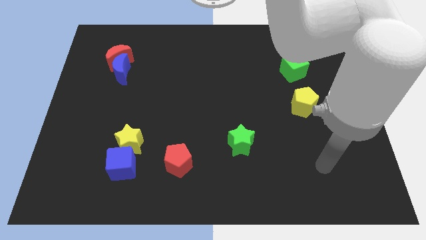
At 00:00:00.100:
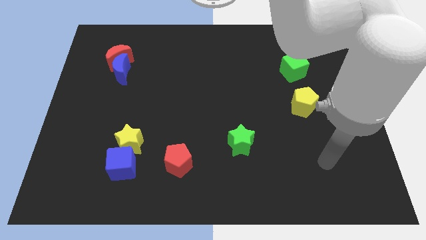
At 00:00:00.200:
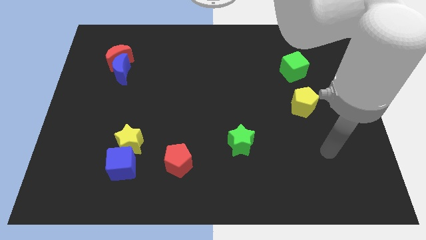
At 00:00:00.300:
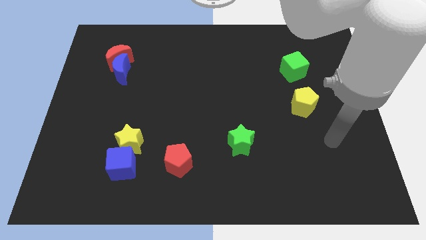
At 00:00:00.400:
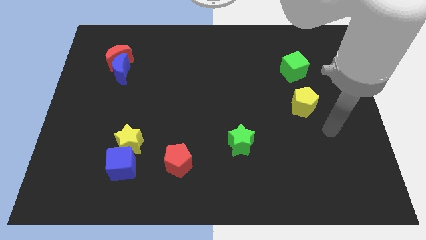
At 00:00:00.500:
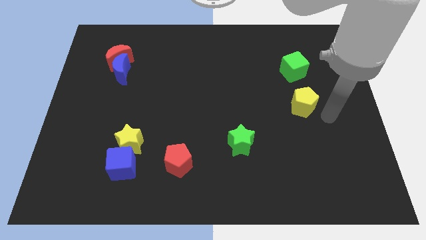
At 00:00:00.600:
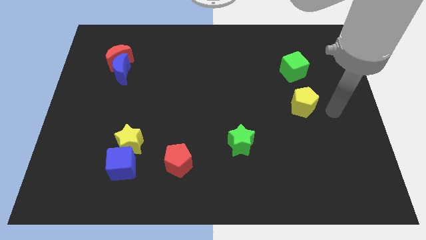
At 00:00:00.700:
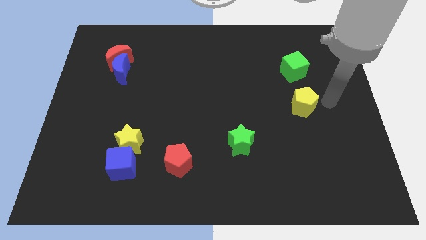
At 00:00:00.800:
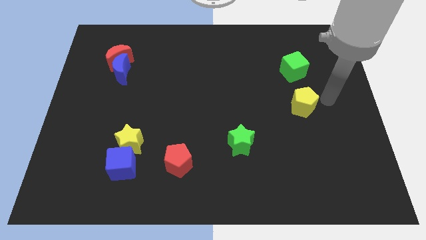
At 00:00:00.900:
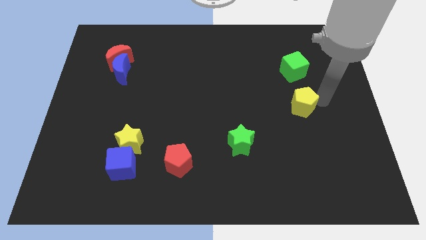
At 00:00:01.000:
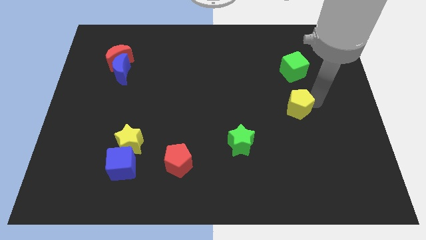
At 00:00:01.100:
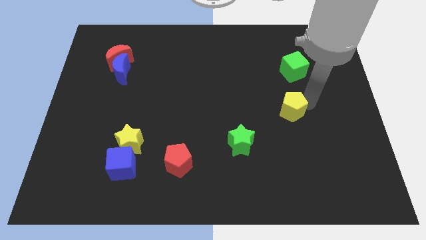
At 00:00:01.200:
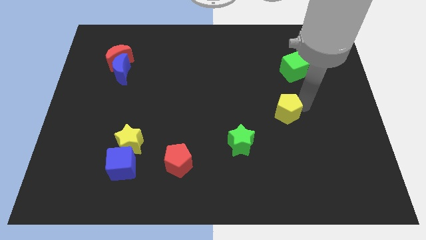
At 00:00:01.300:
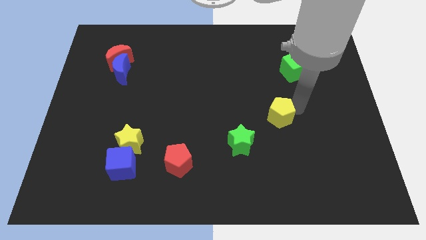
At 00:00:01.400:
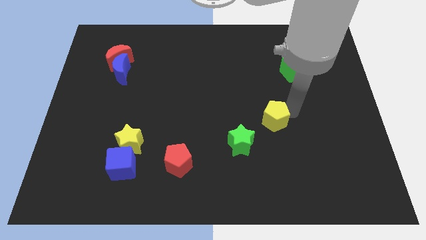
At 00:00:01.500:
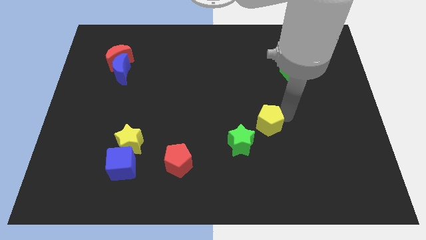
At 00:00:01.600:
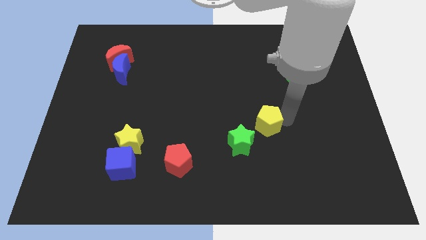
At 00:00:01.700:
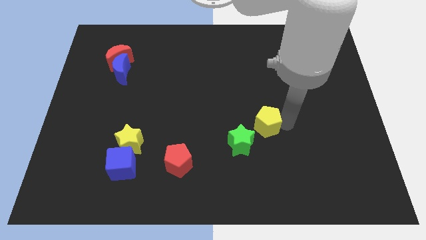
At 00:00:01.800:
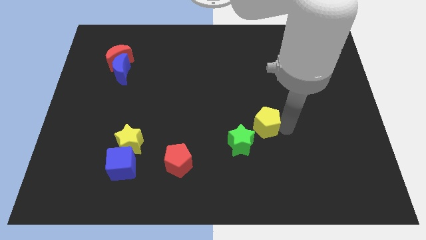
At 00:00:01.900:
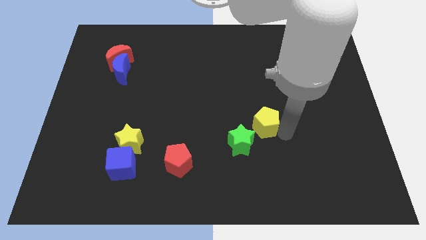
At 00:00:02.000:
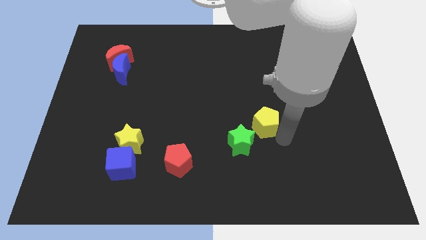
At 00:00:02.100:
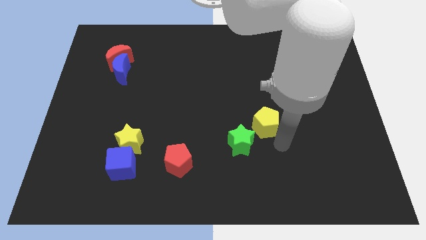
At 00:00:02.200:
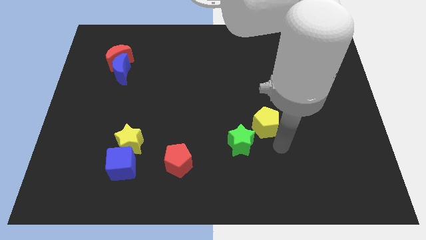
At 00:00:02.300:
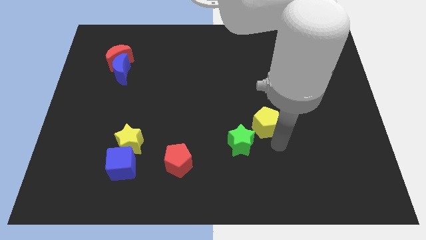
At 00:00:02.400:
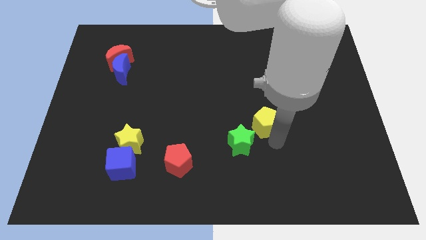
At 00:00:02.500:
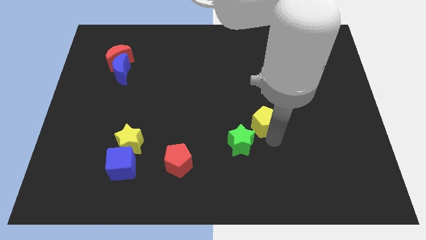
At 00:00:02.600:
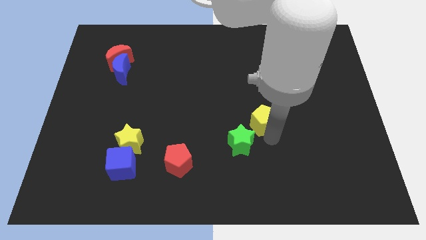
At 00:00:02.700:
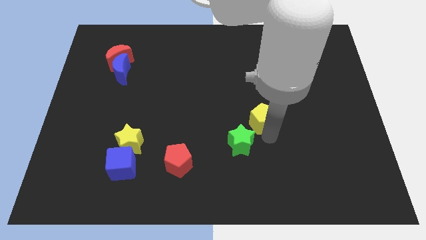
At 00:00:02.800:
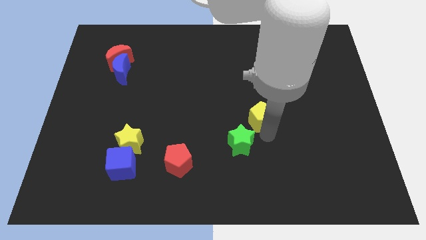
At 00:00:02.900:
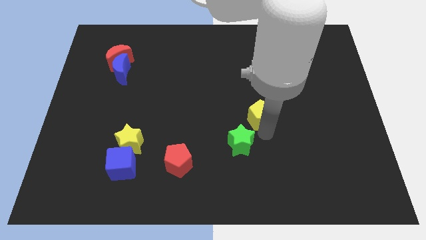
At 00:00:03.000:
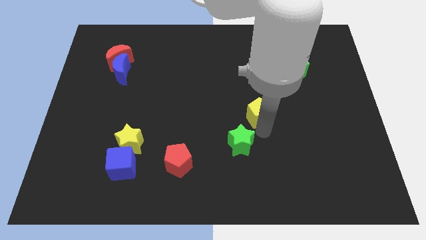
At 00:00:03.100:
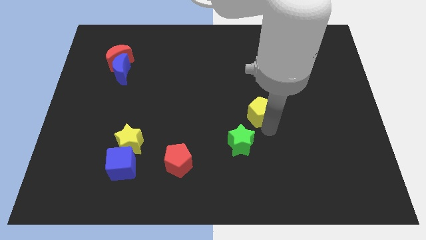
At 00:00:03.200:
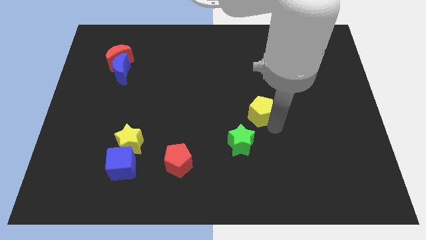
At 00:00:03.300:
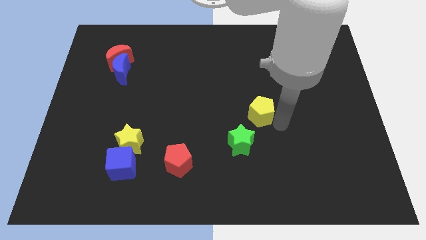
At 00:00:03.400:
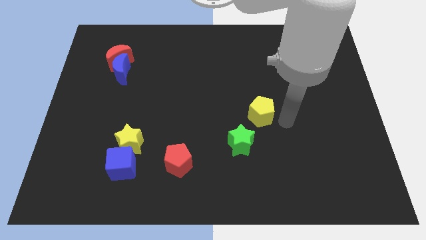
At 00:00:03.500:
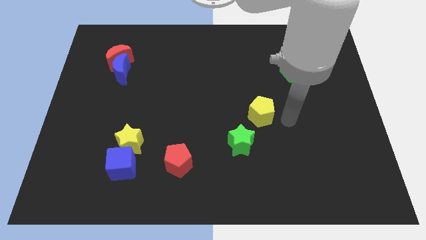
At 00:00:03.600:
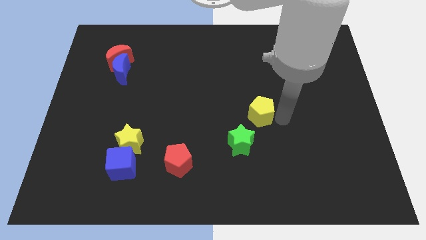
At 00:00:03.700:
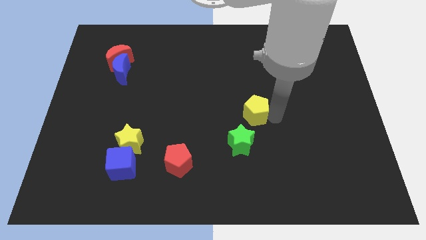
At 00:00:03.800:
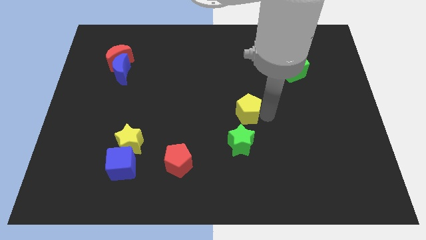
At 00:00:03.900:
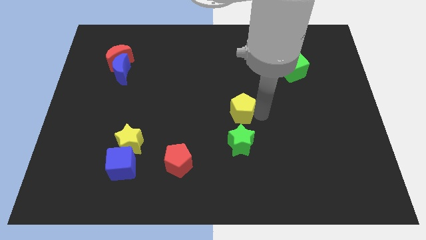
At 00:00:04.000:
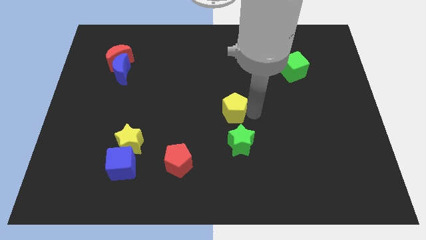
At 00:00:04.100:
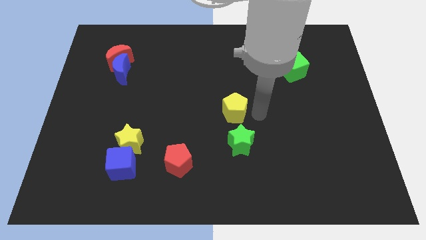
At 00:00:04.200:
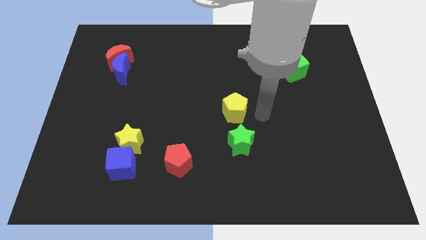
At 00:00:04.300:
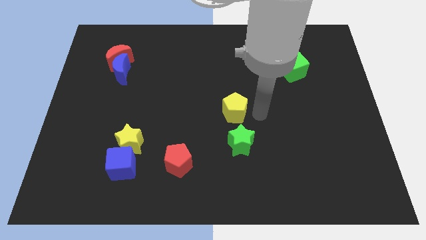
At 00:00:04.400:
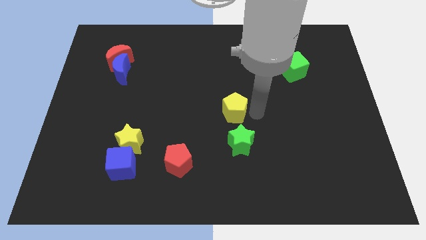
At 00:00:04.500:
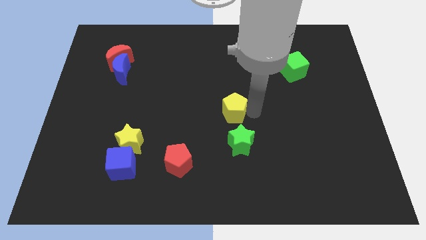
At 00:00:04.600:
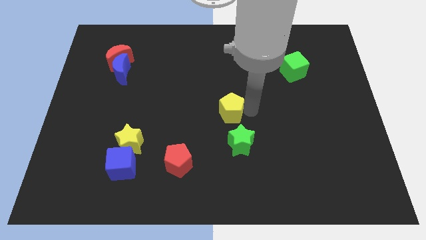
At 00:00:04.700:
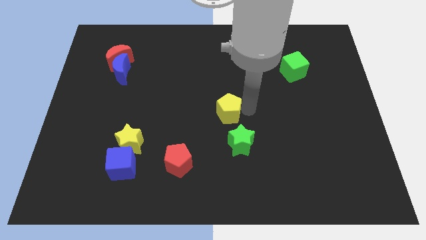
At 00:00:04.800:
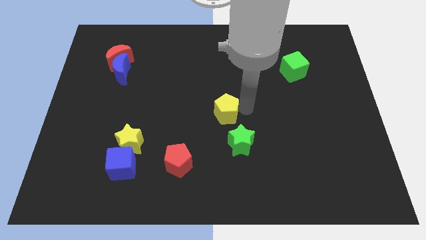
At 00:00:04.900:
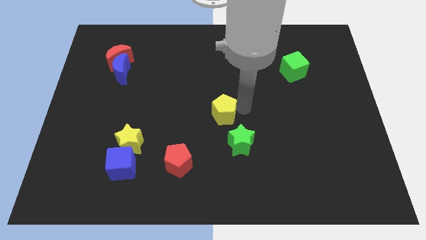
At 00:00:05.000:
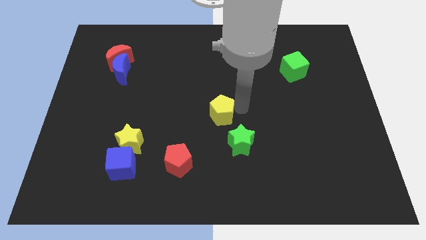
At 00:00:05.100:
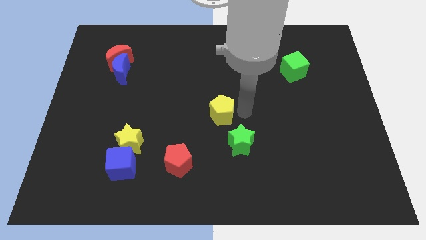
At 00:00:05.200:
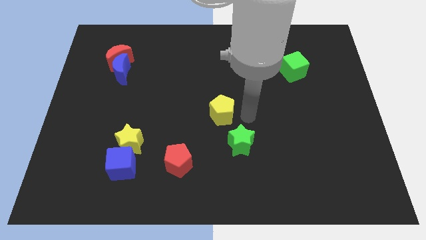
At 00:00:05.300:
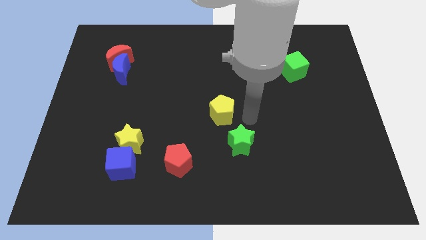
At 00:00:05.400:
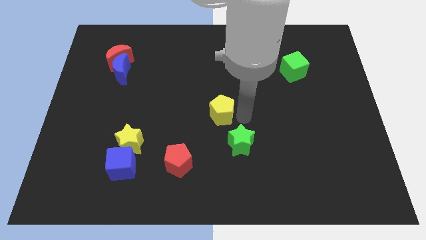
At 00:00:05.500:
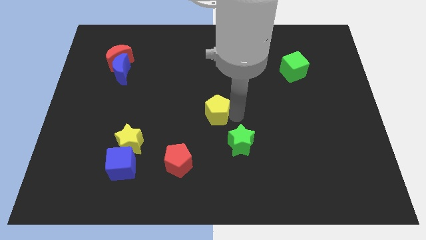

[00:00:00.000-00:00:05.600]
slide the yellow pentagon left

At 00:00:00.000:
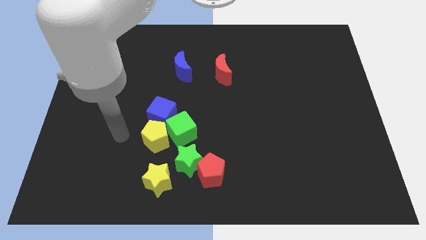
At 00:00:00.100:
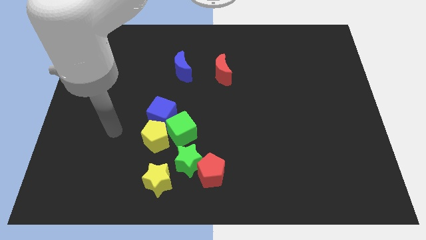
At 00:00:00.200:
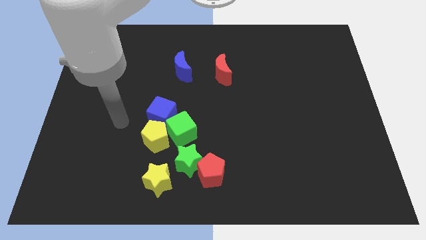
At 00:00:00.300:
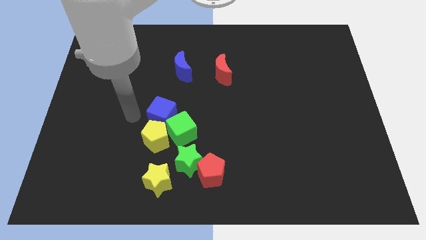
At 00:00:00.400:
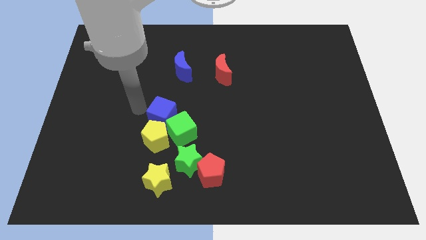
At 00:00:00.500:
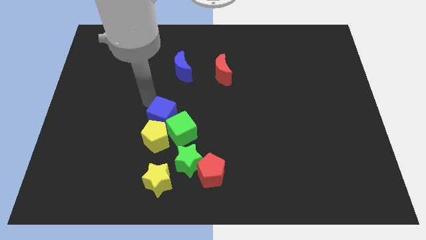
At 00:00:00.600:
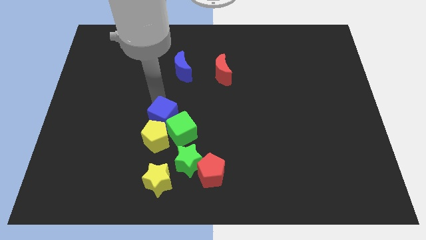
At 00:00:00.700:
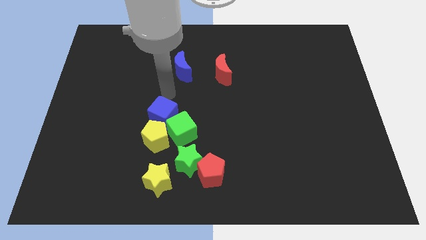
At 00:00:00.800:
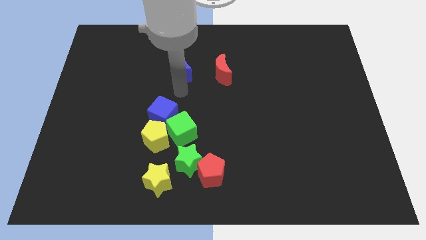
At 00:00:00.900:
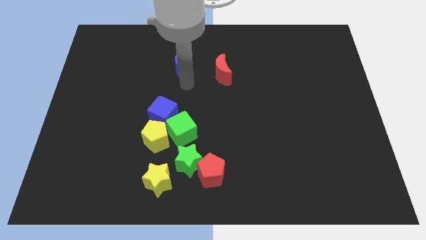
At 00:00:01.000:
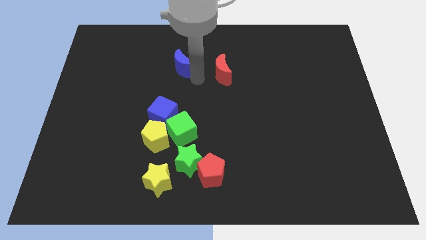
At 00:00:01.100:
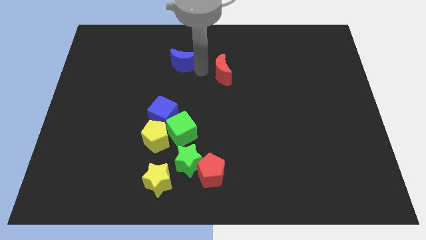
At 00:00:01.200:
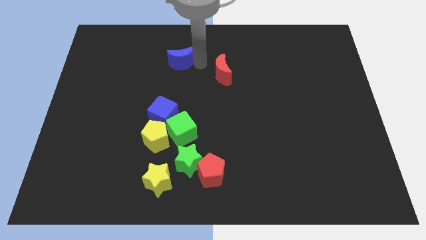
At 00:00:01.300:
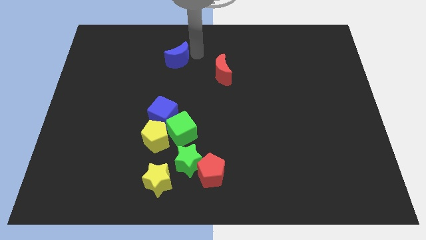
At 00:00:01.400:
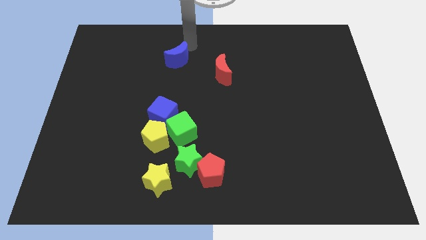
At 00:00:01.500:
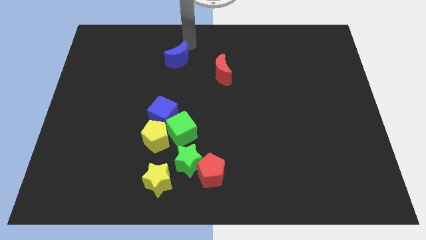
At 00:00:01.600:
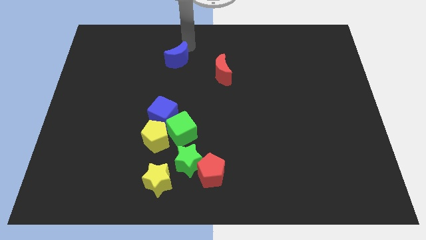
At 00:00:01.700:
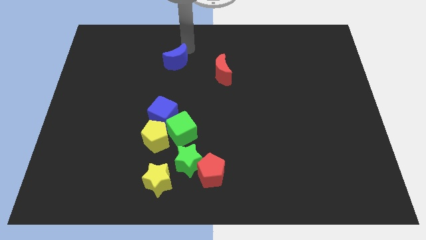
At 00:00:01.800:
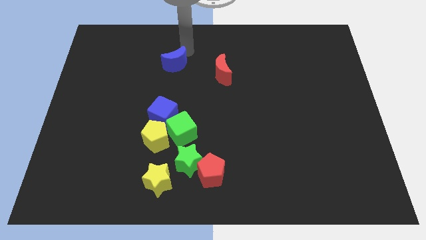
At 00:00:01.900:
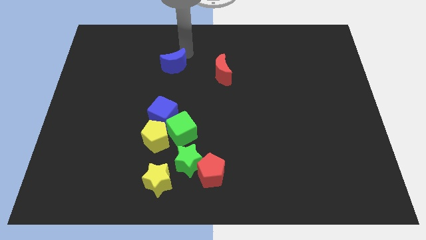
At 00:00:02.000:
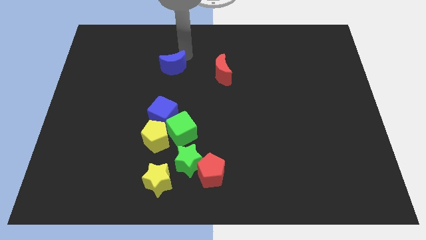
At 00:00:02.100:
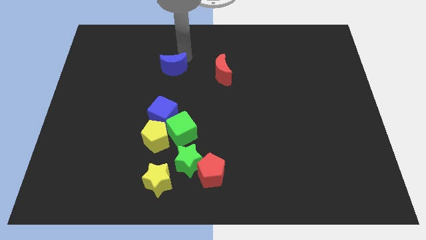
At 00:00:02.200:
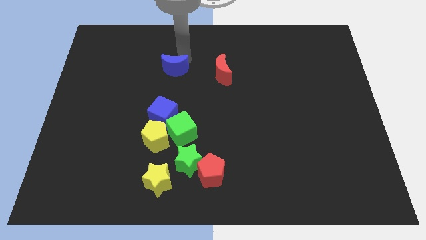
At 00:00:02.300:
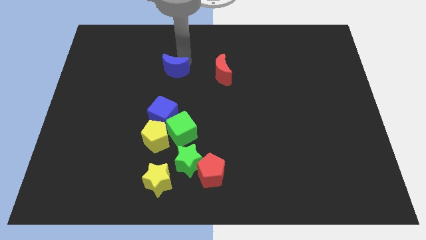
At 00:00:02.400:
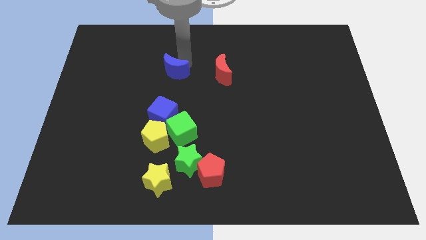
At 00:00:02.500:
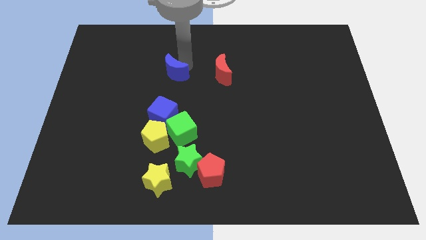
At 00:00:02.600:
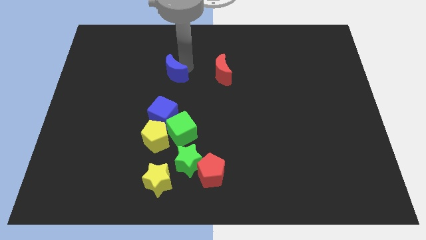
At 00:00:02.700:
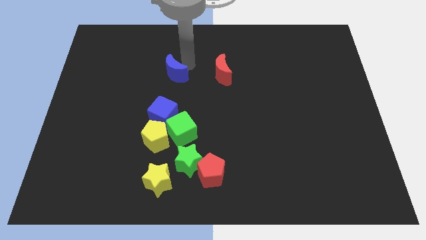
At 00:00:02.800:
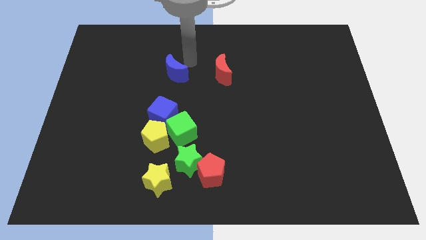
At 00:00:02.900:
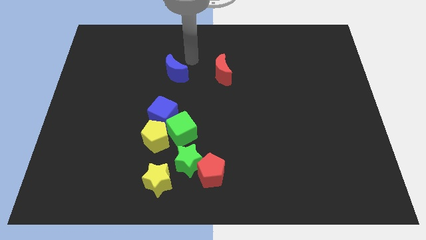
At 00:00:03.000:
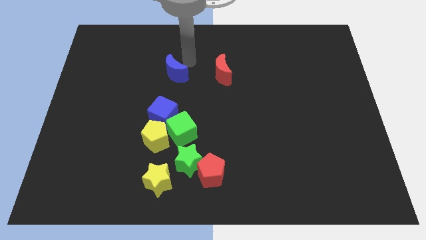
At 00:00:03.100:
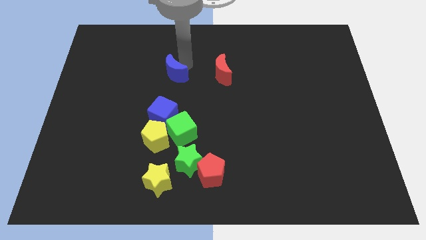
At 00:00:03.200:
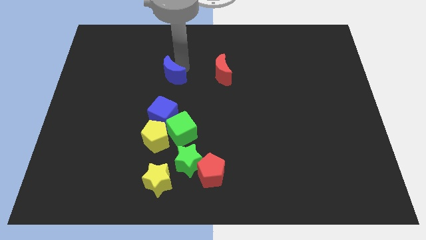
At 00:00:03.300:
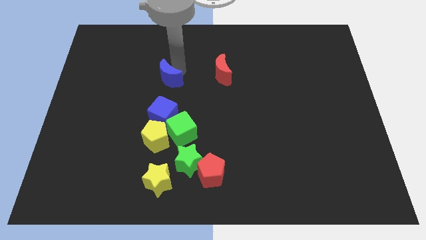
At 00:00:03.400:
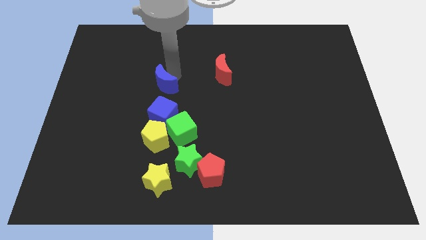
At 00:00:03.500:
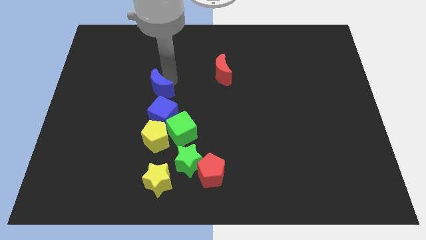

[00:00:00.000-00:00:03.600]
push the blue moon down and then left somewhat
